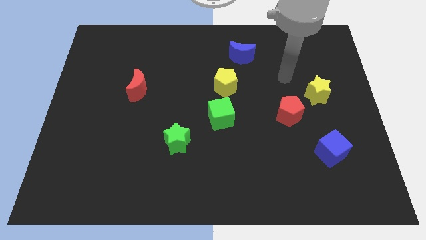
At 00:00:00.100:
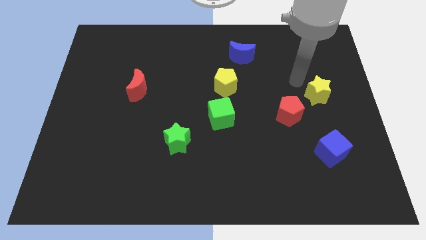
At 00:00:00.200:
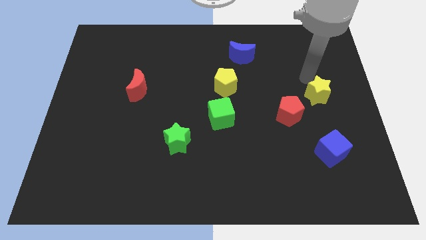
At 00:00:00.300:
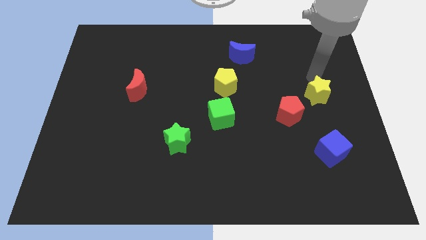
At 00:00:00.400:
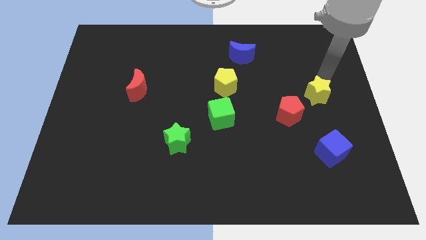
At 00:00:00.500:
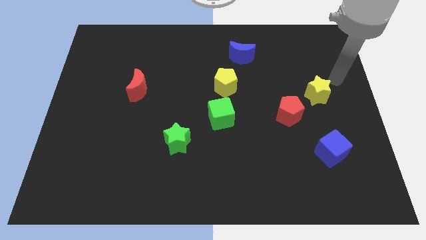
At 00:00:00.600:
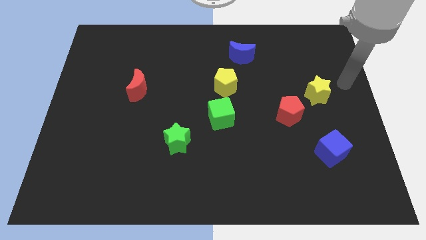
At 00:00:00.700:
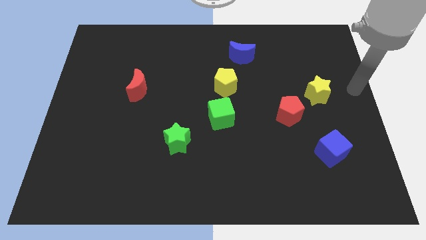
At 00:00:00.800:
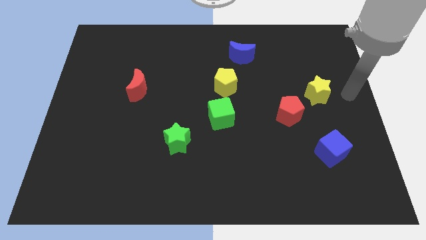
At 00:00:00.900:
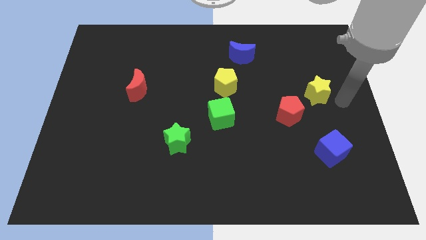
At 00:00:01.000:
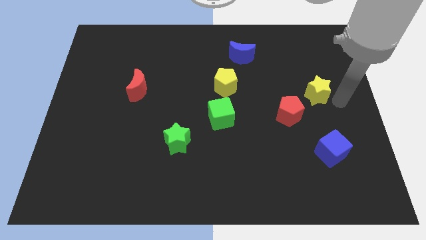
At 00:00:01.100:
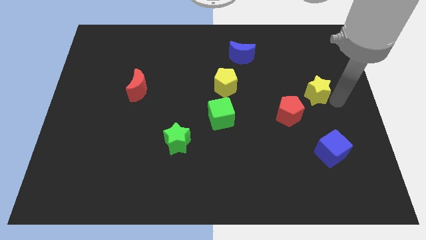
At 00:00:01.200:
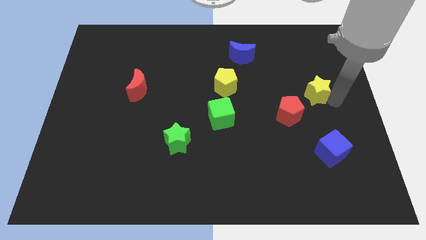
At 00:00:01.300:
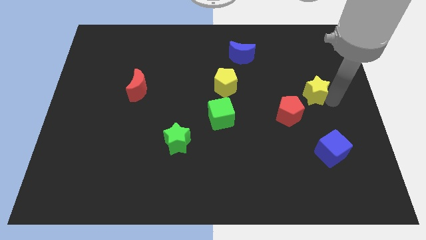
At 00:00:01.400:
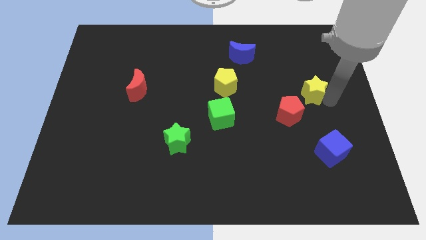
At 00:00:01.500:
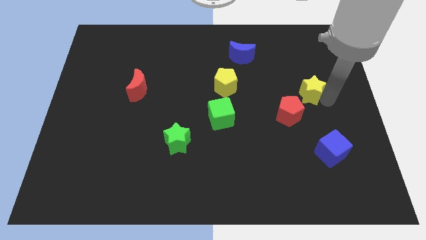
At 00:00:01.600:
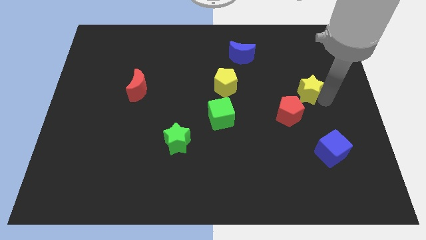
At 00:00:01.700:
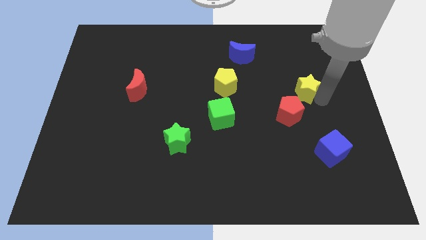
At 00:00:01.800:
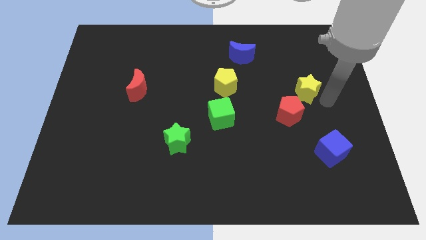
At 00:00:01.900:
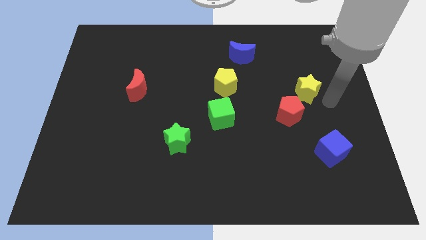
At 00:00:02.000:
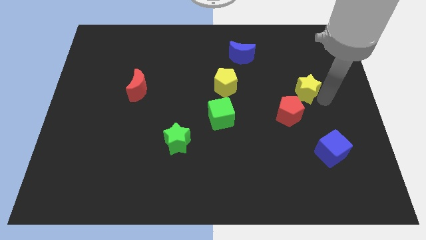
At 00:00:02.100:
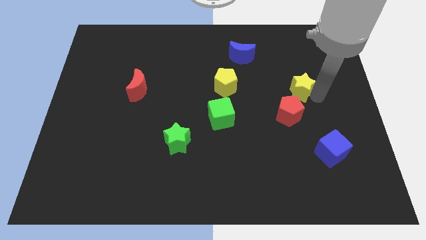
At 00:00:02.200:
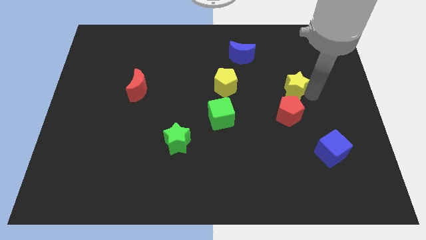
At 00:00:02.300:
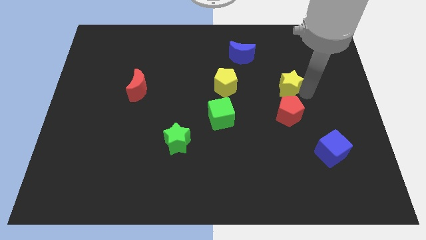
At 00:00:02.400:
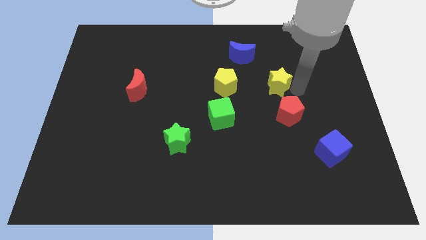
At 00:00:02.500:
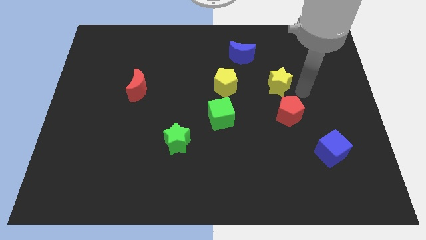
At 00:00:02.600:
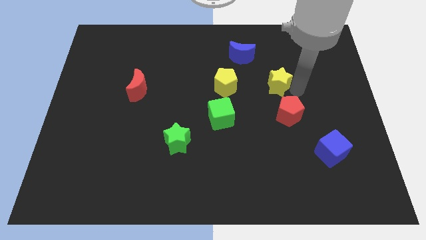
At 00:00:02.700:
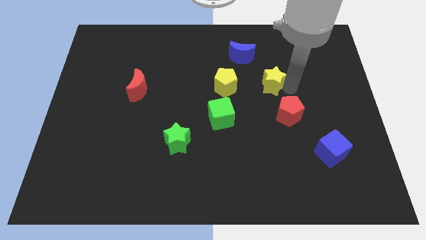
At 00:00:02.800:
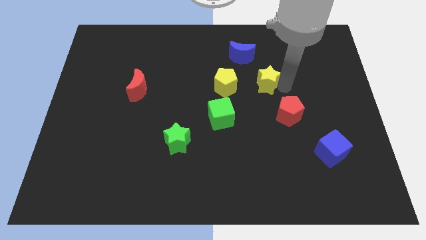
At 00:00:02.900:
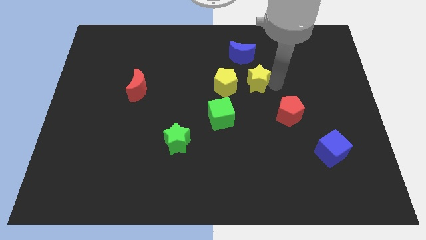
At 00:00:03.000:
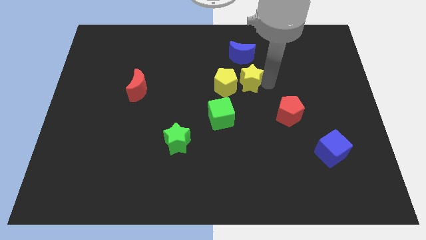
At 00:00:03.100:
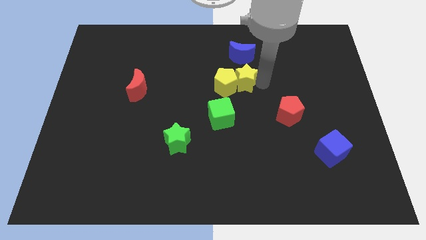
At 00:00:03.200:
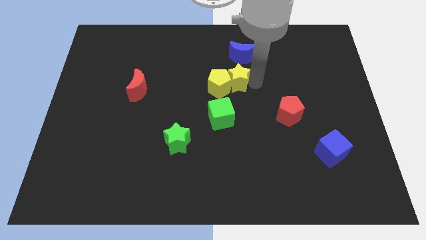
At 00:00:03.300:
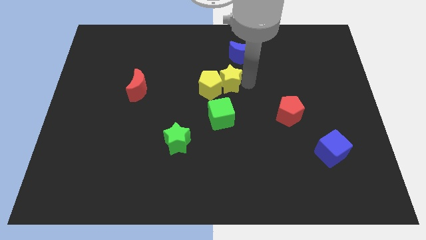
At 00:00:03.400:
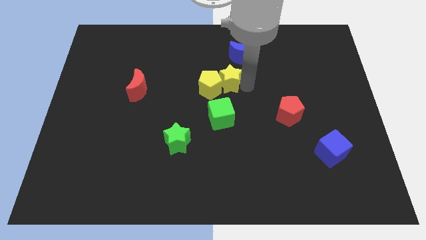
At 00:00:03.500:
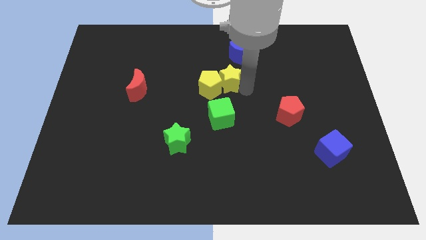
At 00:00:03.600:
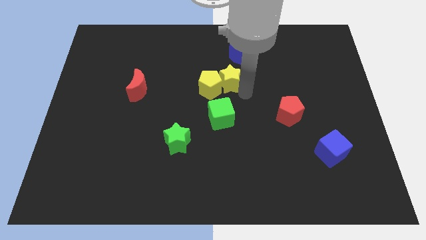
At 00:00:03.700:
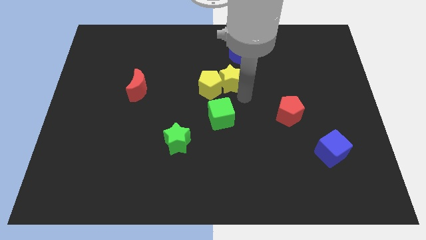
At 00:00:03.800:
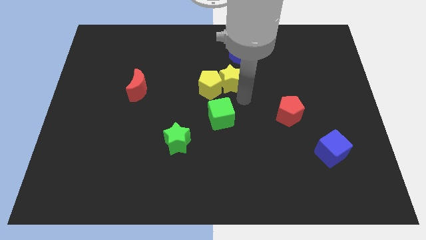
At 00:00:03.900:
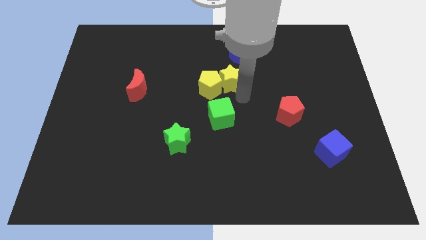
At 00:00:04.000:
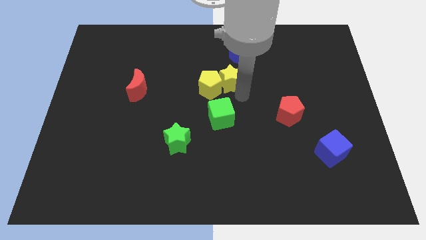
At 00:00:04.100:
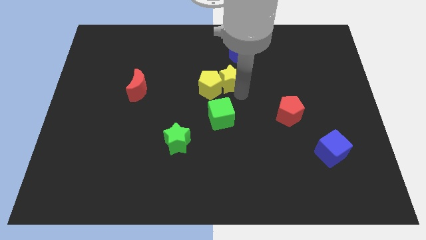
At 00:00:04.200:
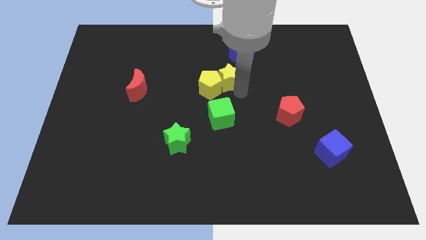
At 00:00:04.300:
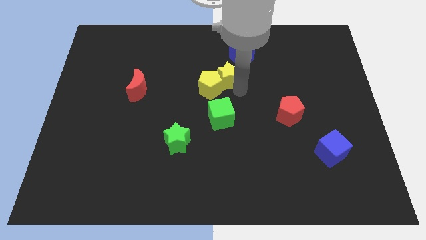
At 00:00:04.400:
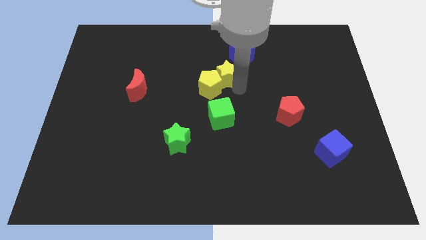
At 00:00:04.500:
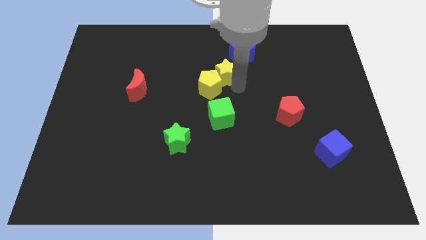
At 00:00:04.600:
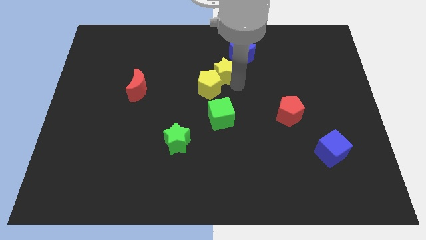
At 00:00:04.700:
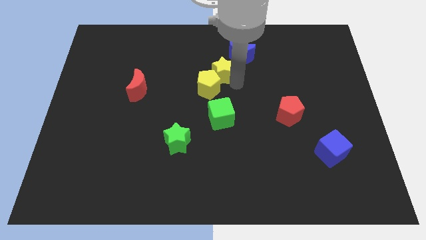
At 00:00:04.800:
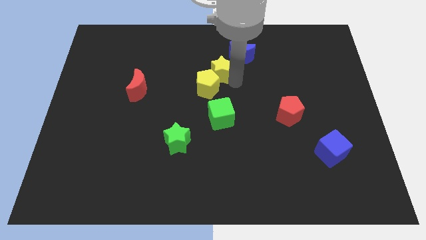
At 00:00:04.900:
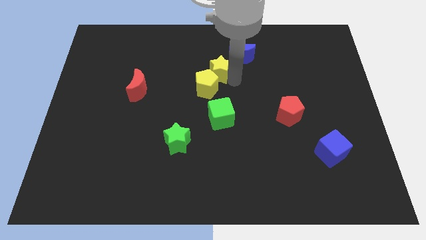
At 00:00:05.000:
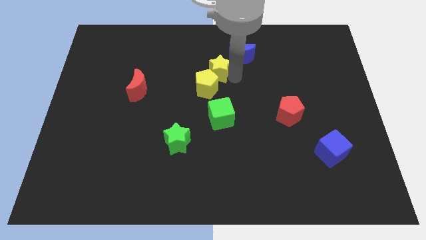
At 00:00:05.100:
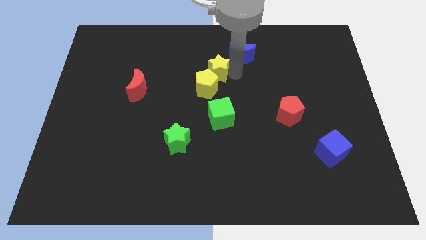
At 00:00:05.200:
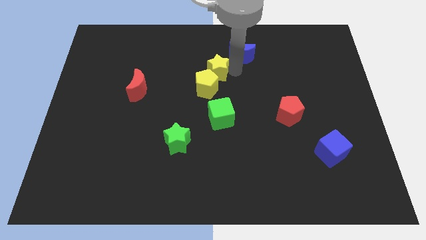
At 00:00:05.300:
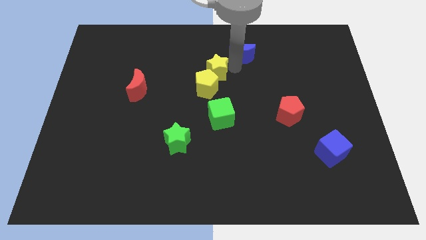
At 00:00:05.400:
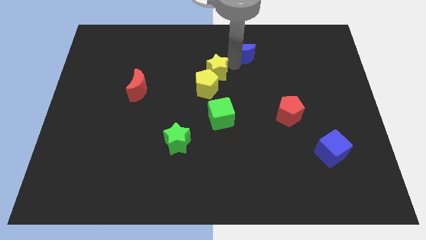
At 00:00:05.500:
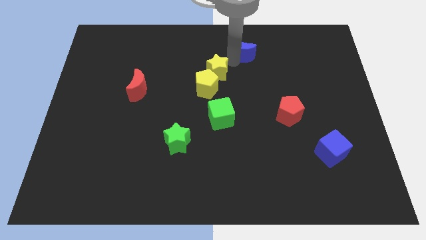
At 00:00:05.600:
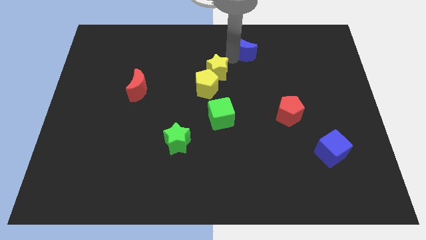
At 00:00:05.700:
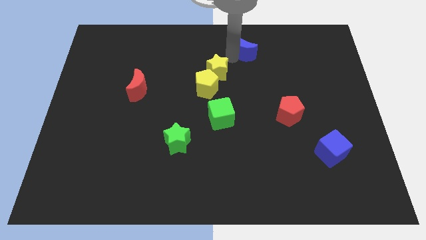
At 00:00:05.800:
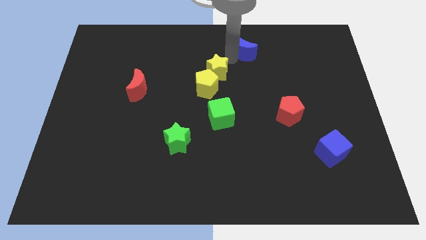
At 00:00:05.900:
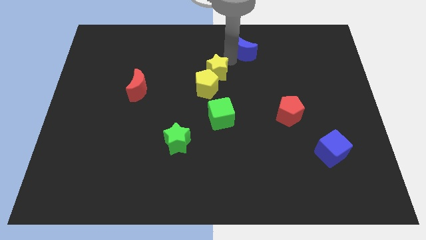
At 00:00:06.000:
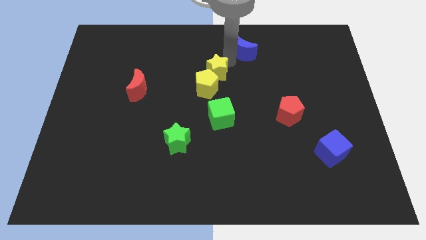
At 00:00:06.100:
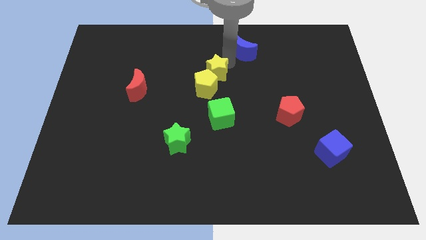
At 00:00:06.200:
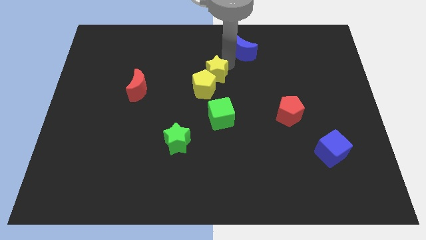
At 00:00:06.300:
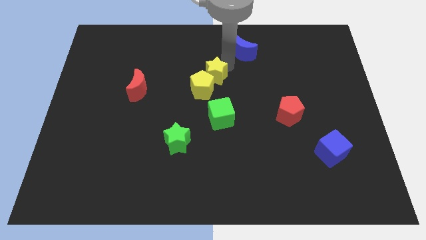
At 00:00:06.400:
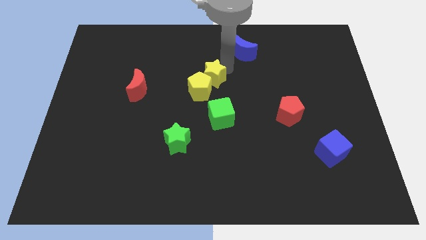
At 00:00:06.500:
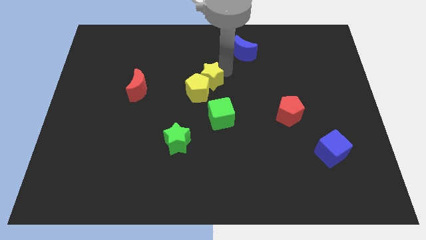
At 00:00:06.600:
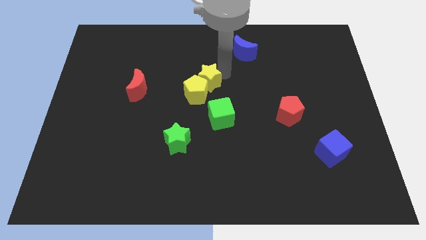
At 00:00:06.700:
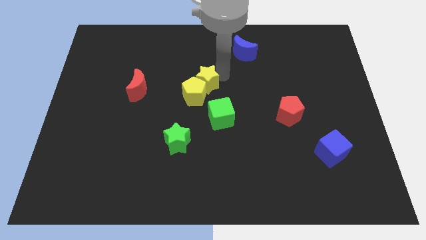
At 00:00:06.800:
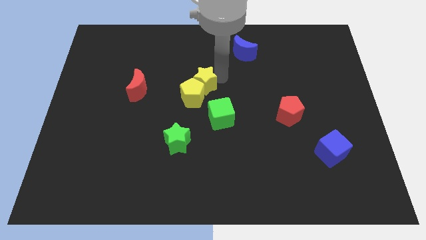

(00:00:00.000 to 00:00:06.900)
push the yellow star right of the red moon
